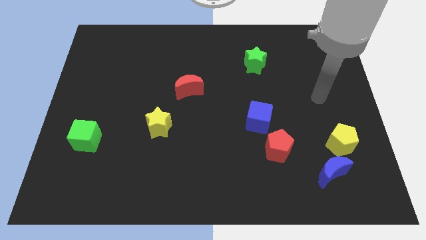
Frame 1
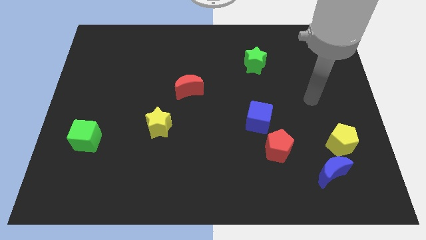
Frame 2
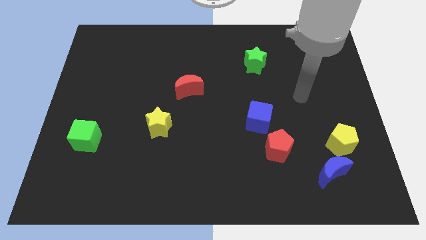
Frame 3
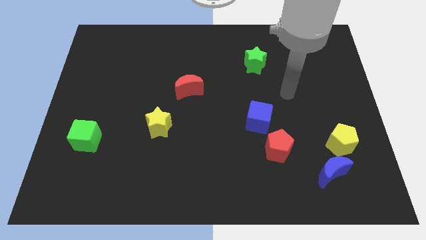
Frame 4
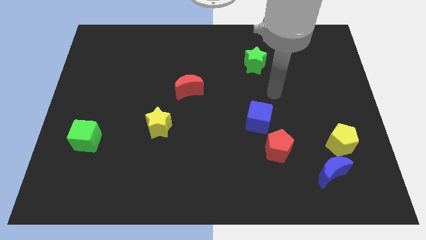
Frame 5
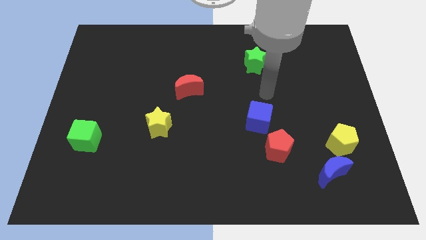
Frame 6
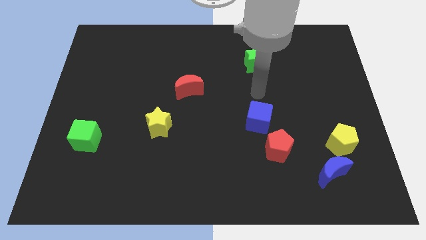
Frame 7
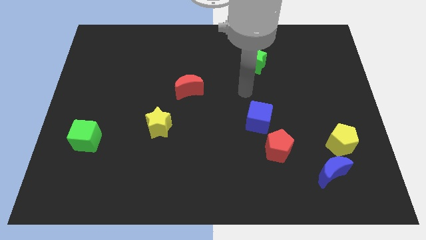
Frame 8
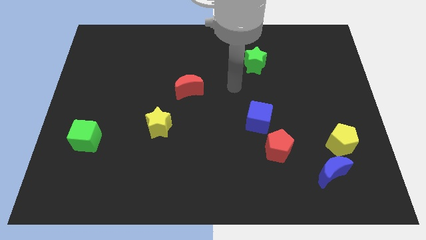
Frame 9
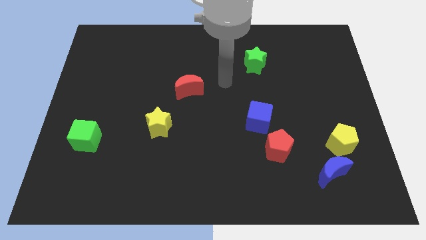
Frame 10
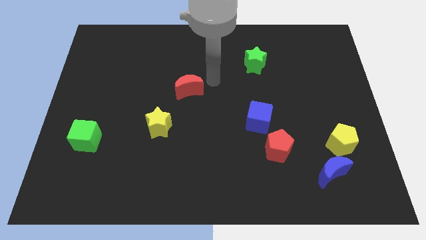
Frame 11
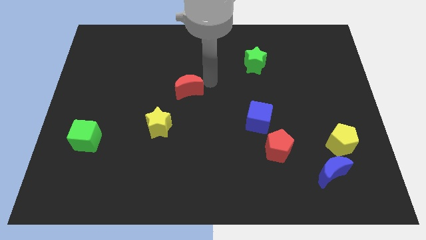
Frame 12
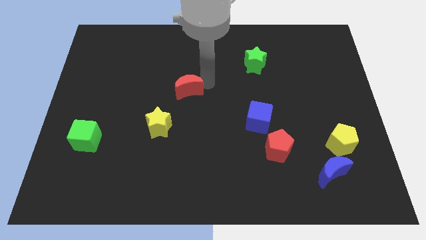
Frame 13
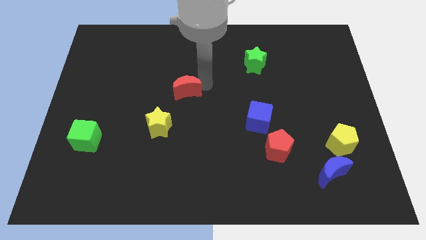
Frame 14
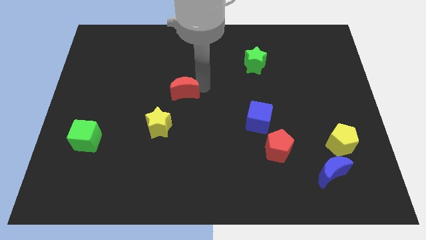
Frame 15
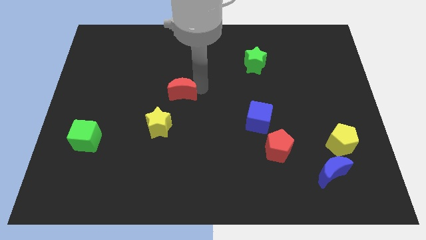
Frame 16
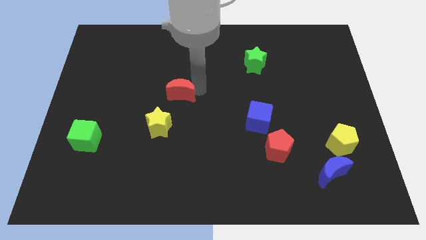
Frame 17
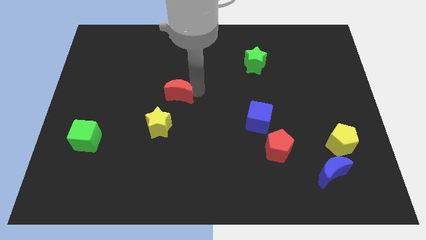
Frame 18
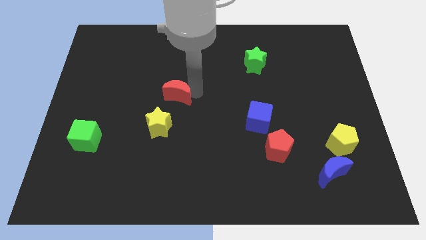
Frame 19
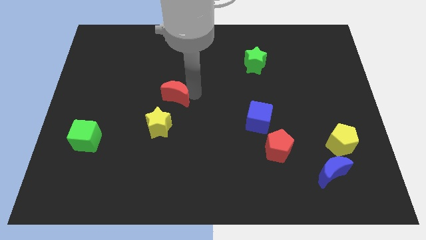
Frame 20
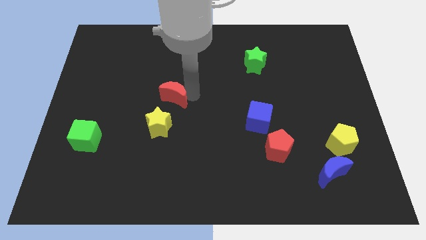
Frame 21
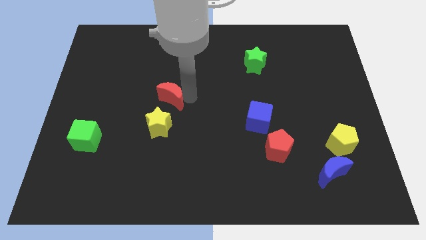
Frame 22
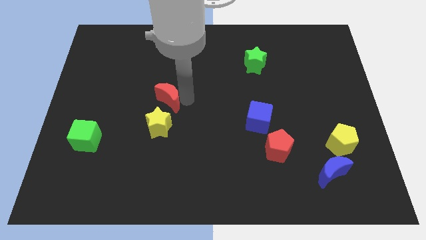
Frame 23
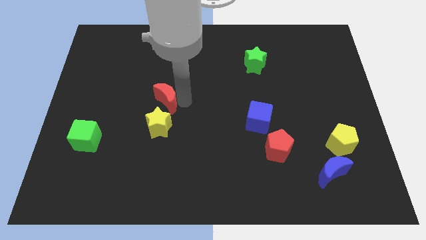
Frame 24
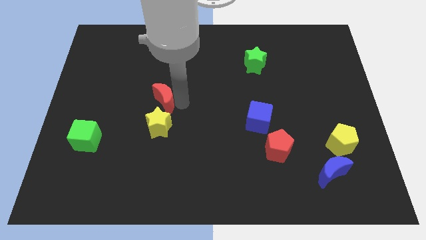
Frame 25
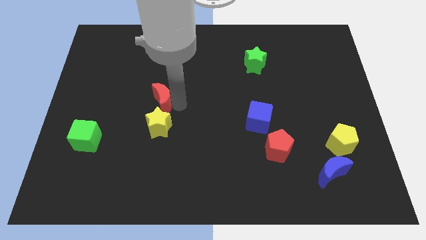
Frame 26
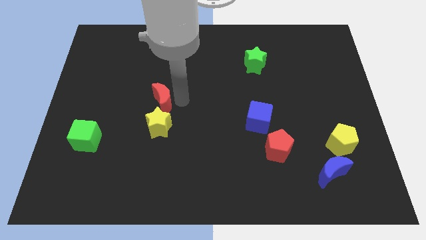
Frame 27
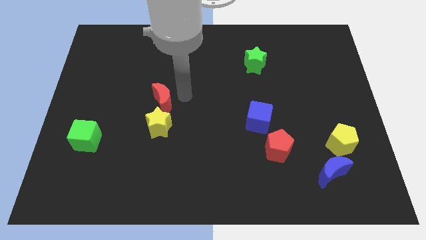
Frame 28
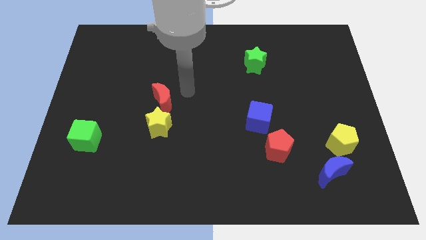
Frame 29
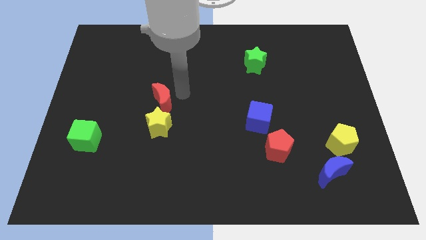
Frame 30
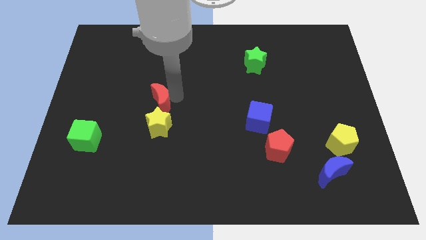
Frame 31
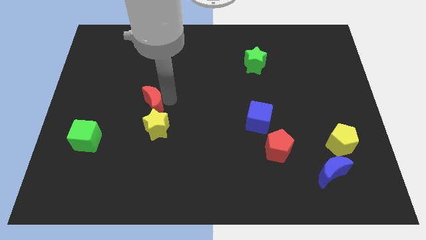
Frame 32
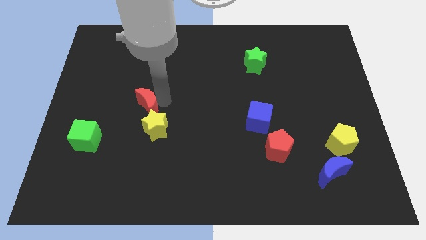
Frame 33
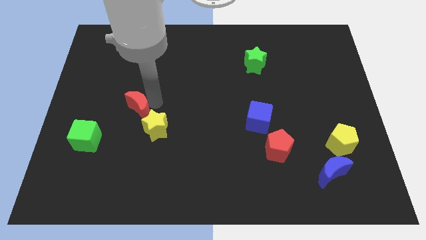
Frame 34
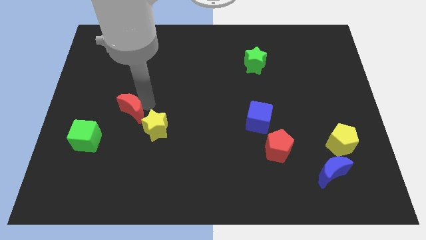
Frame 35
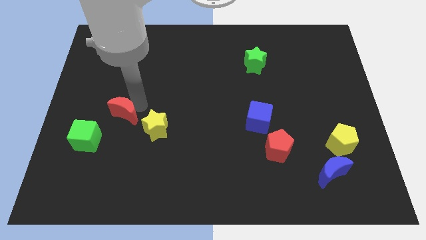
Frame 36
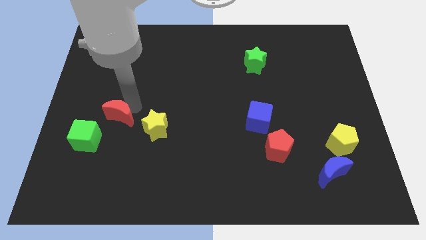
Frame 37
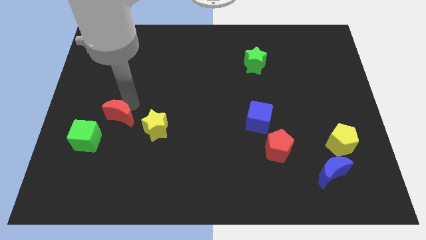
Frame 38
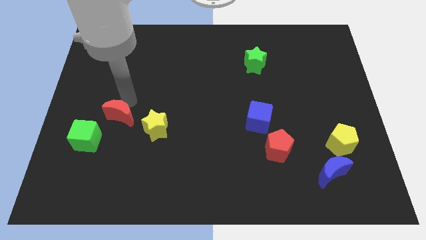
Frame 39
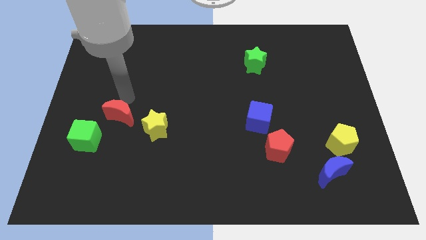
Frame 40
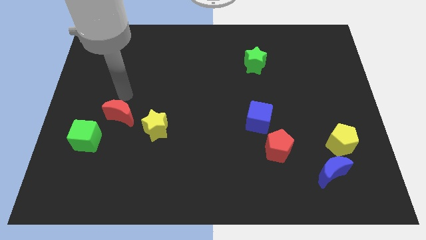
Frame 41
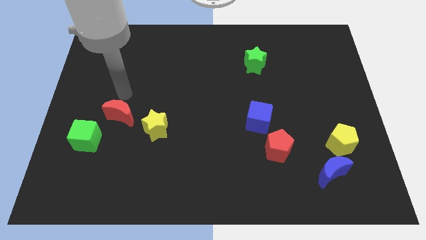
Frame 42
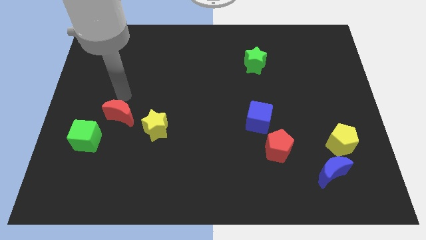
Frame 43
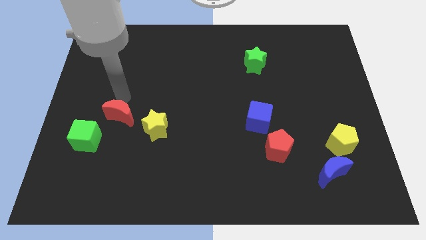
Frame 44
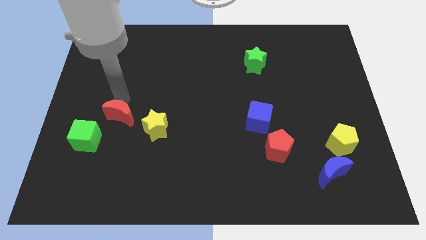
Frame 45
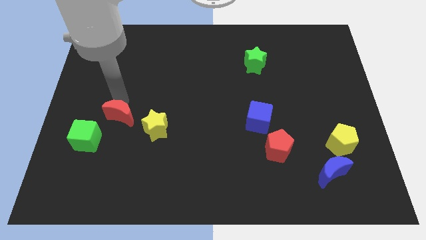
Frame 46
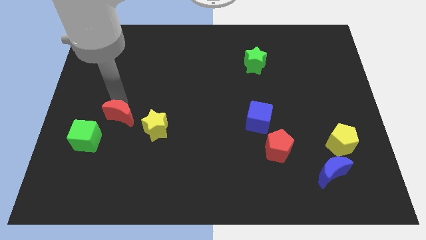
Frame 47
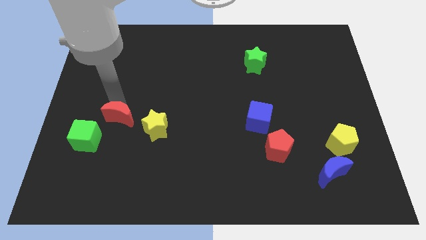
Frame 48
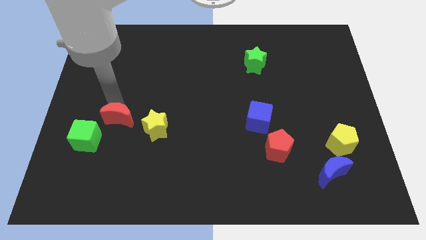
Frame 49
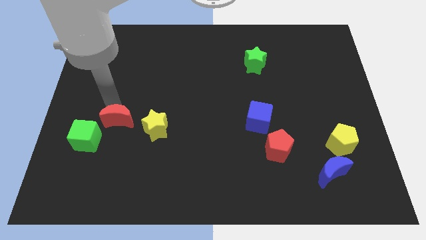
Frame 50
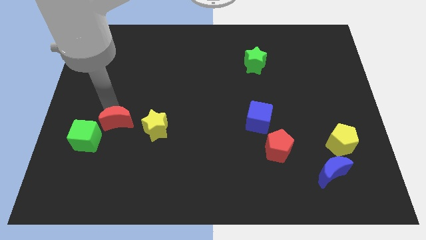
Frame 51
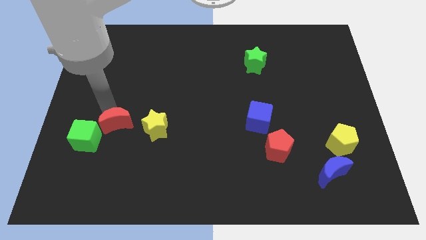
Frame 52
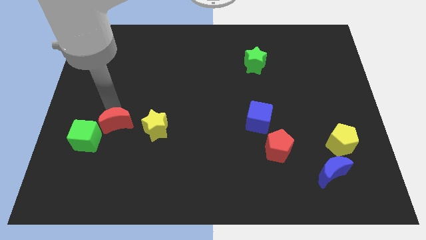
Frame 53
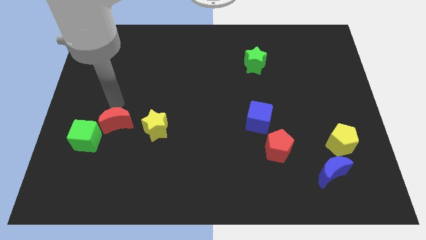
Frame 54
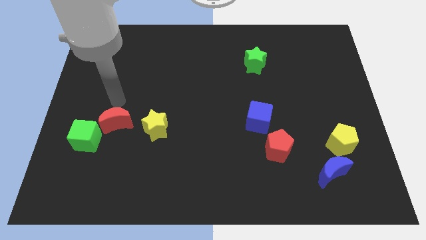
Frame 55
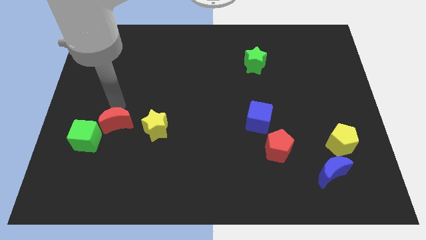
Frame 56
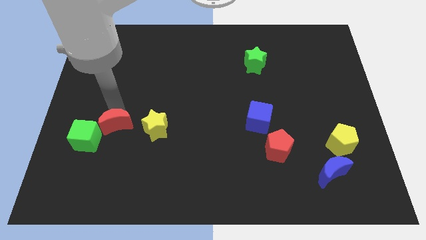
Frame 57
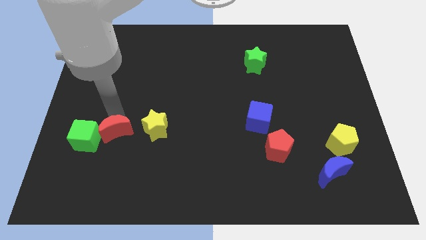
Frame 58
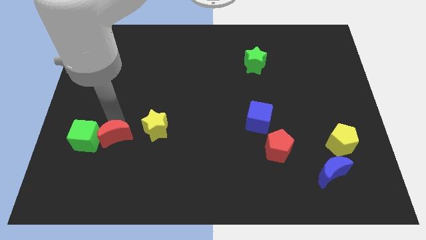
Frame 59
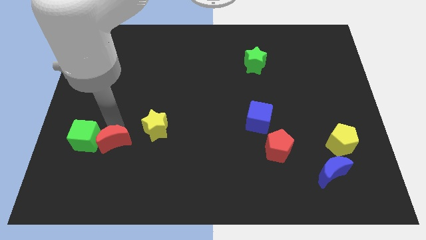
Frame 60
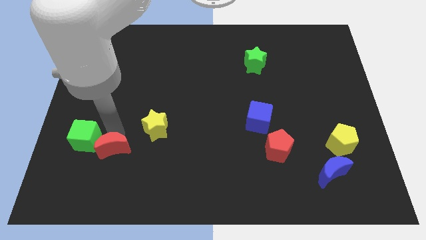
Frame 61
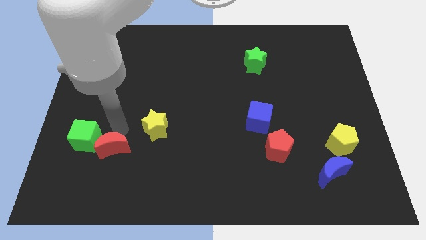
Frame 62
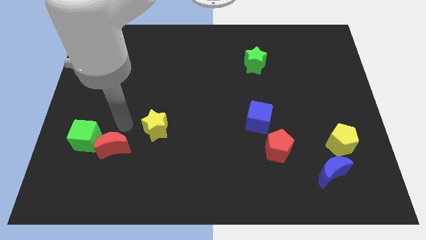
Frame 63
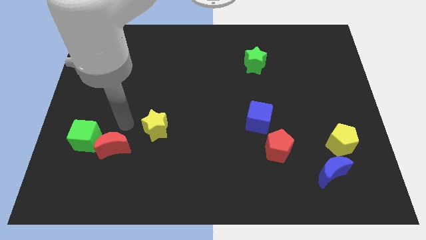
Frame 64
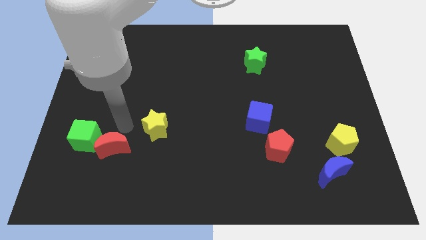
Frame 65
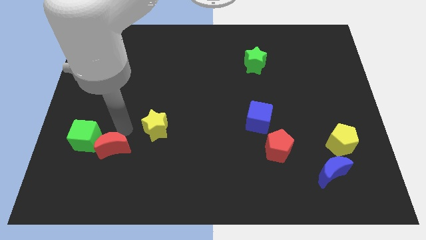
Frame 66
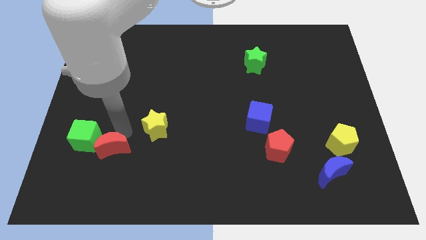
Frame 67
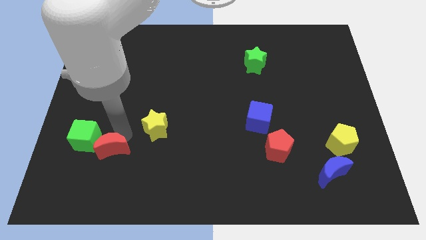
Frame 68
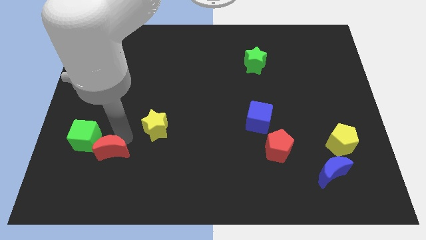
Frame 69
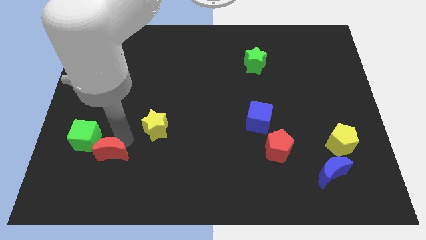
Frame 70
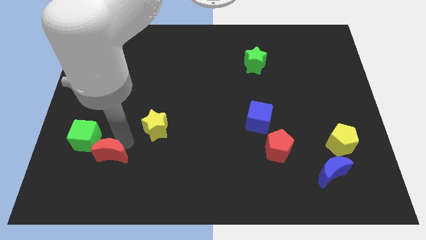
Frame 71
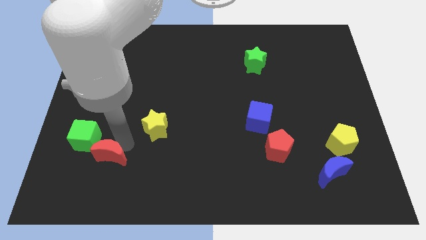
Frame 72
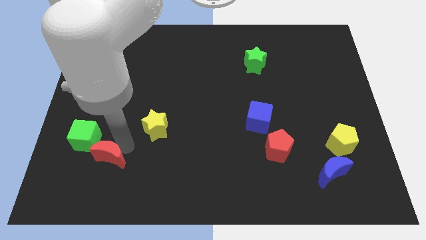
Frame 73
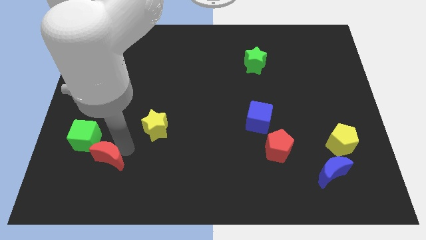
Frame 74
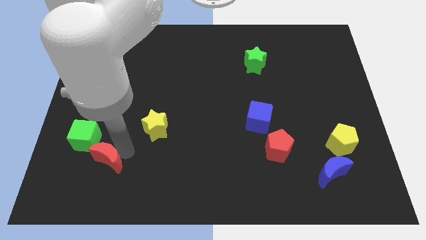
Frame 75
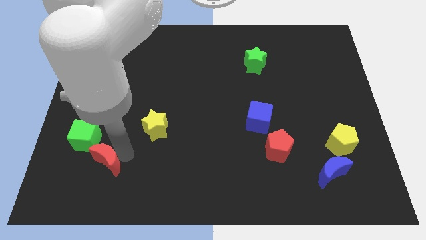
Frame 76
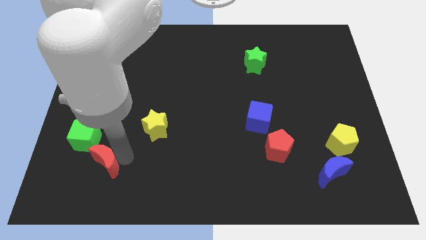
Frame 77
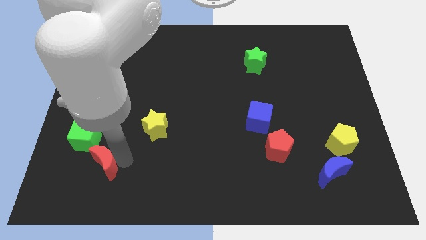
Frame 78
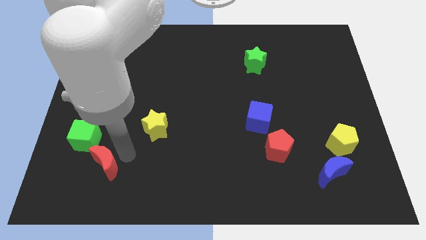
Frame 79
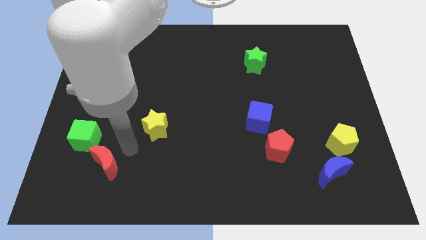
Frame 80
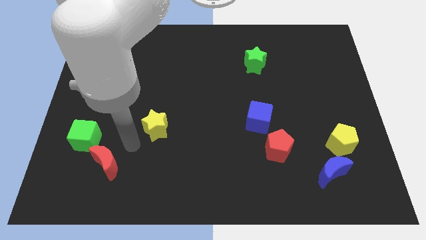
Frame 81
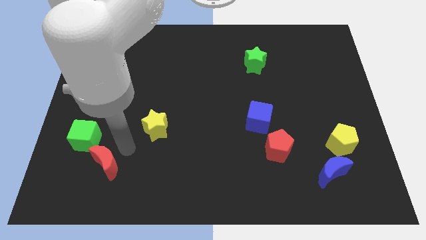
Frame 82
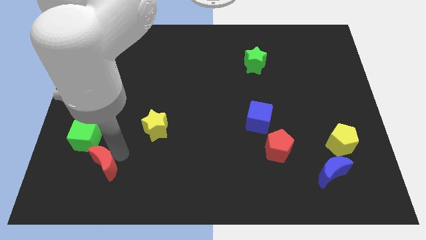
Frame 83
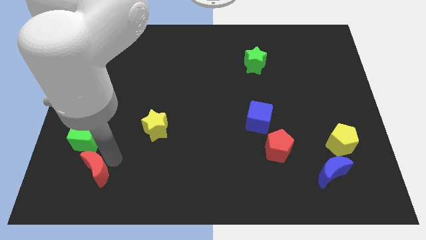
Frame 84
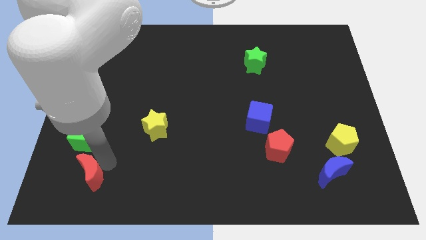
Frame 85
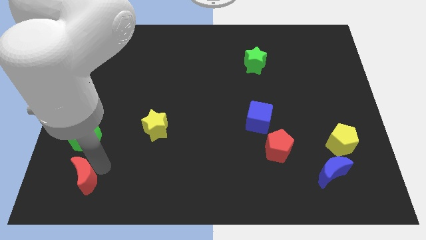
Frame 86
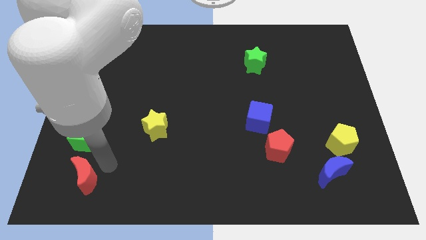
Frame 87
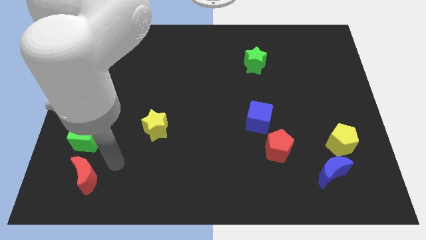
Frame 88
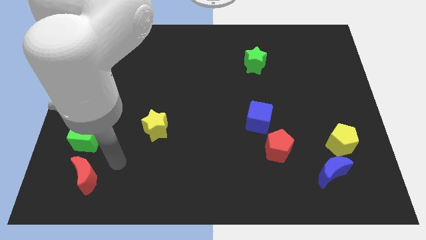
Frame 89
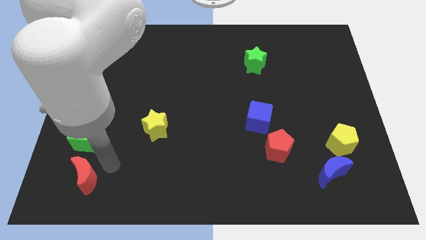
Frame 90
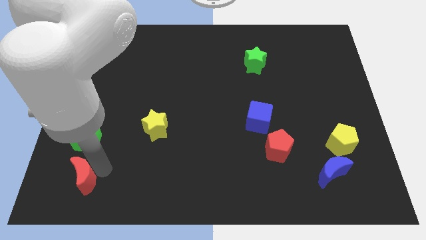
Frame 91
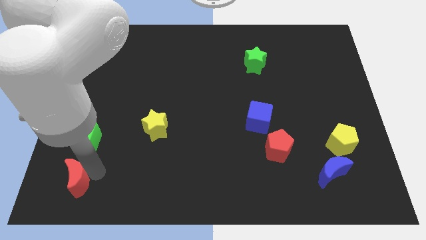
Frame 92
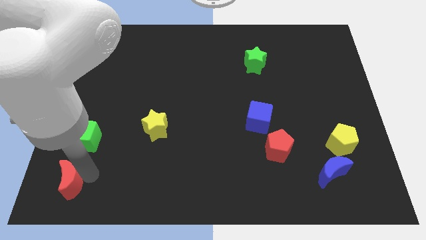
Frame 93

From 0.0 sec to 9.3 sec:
put the red moon to the lower left corner
